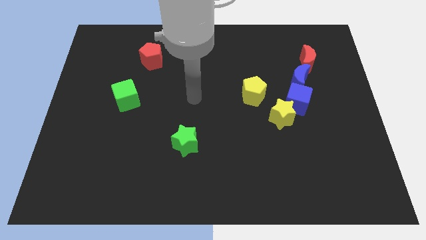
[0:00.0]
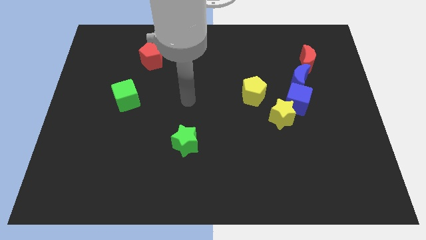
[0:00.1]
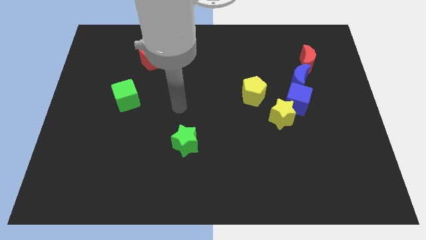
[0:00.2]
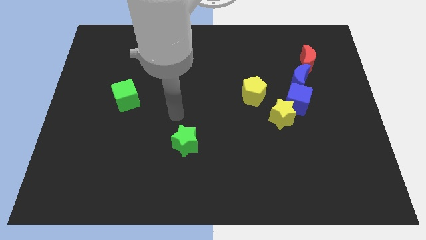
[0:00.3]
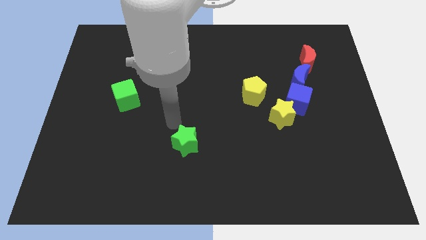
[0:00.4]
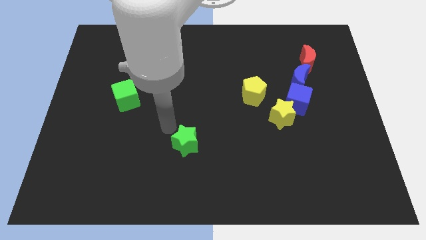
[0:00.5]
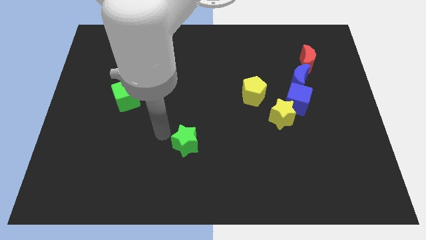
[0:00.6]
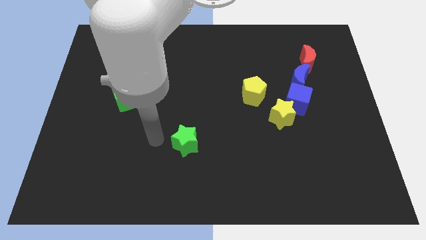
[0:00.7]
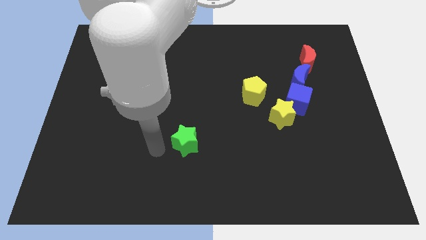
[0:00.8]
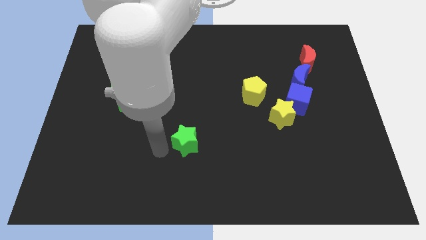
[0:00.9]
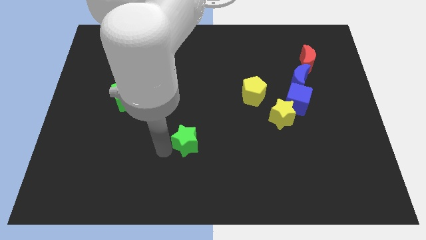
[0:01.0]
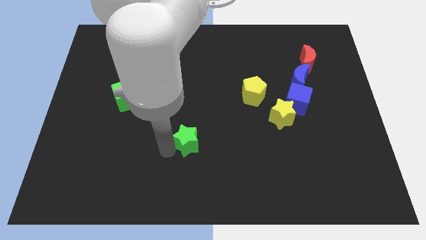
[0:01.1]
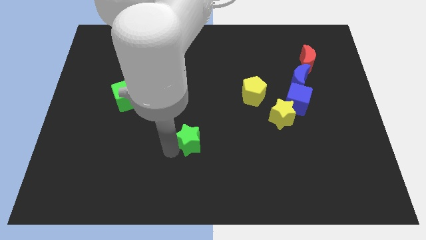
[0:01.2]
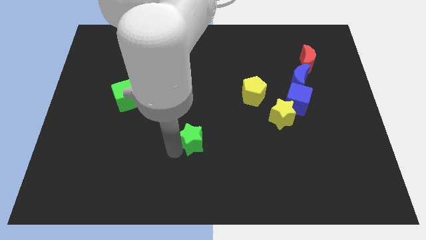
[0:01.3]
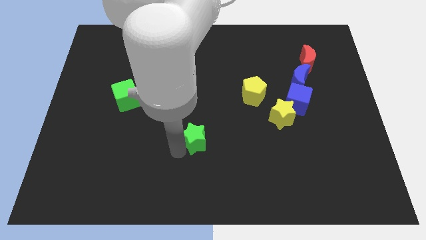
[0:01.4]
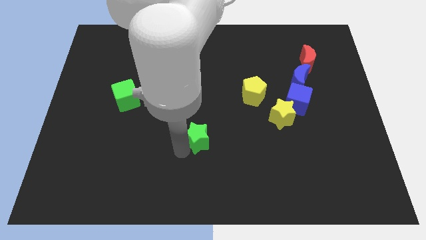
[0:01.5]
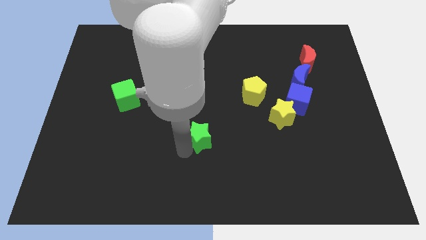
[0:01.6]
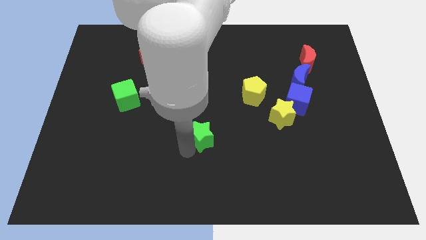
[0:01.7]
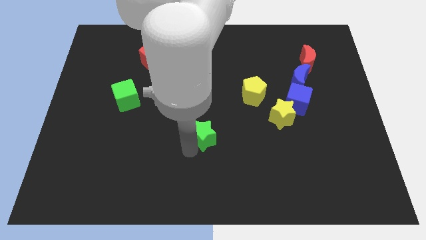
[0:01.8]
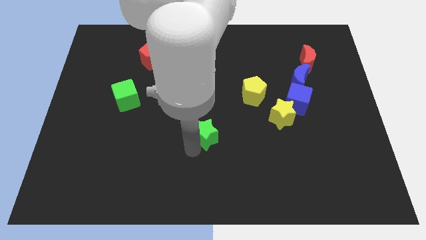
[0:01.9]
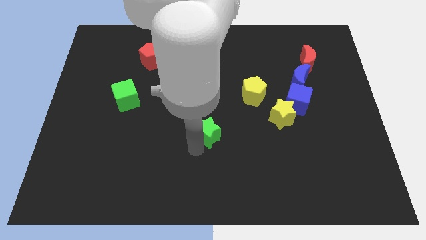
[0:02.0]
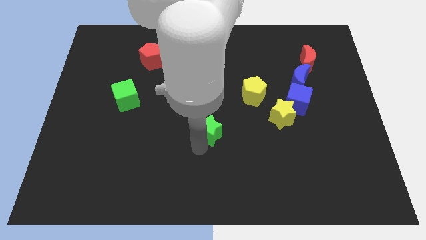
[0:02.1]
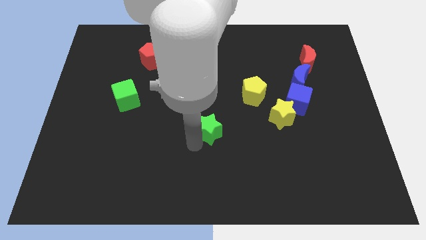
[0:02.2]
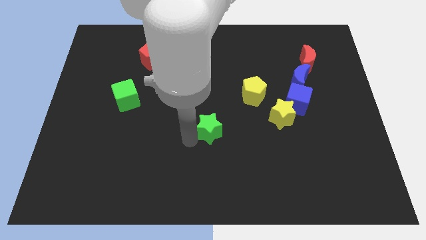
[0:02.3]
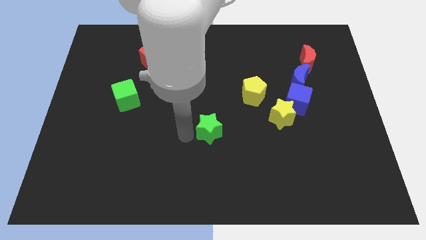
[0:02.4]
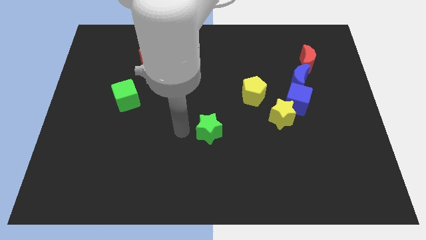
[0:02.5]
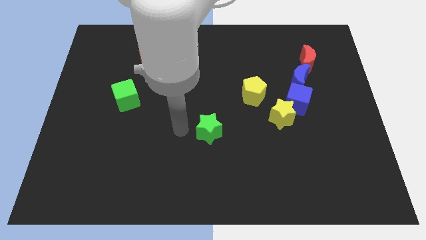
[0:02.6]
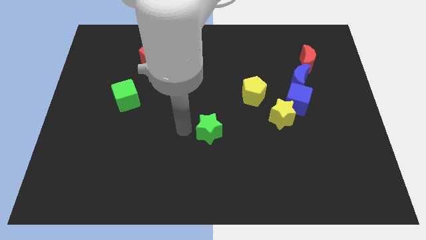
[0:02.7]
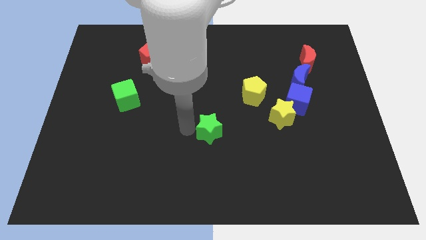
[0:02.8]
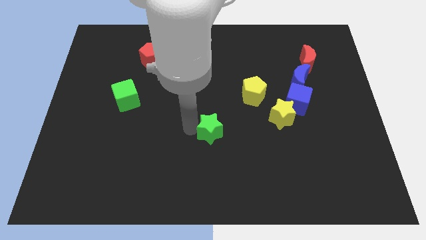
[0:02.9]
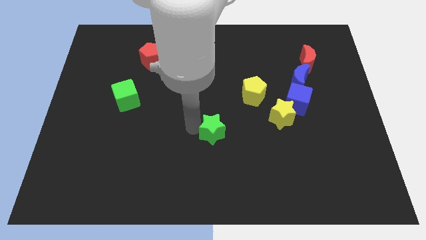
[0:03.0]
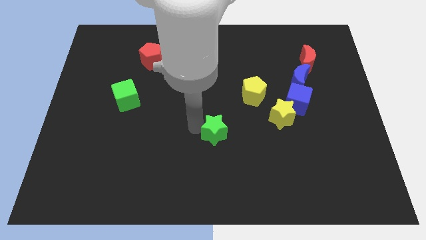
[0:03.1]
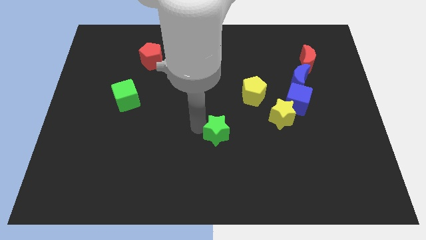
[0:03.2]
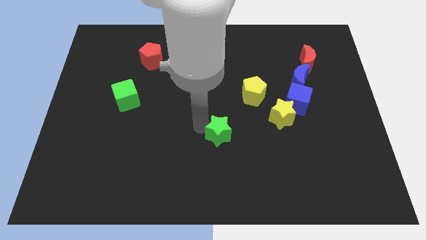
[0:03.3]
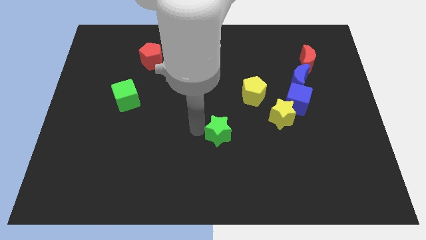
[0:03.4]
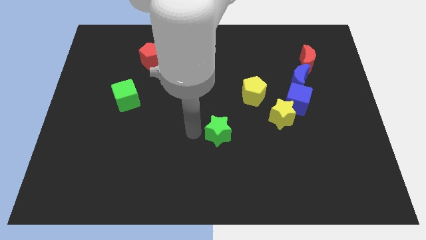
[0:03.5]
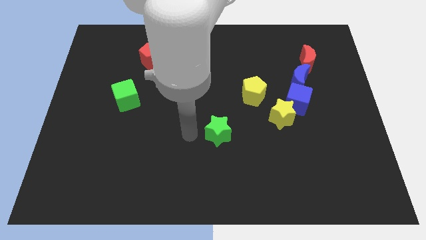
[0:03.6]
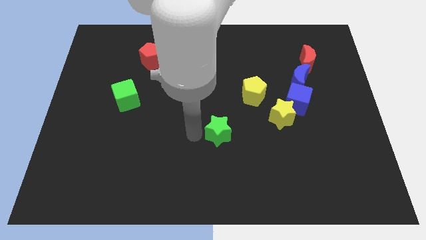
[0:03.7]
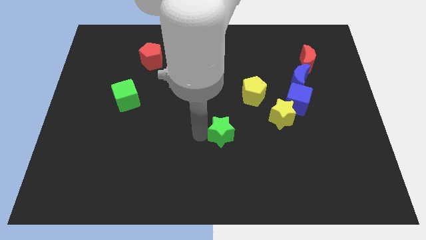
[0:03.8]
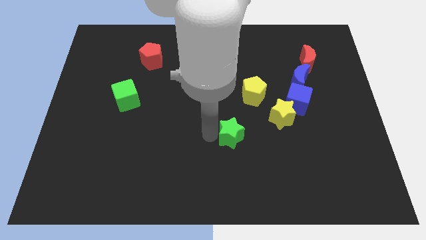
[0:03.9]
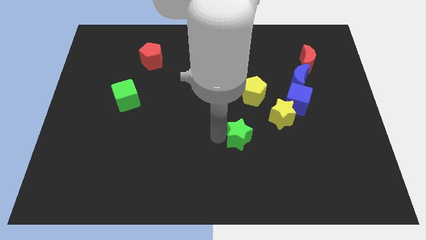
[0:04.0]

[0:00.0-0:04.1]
move the green star below the yellow pentagon

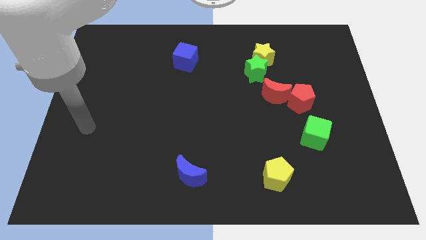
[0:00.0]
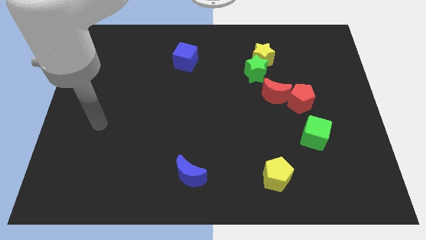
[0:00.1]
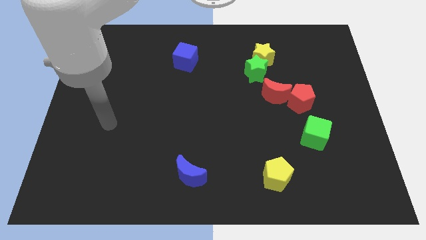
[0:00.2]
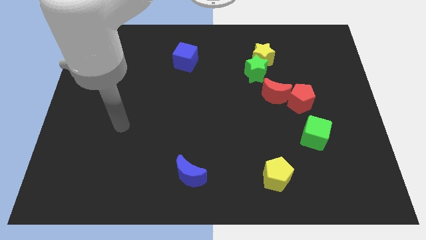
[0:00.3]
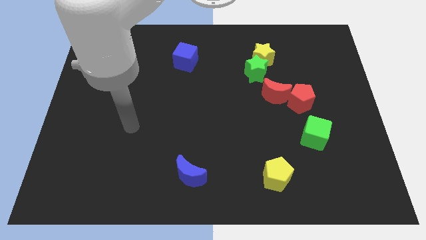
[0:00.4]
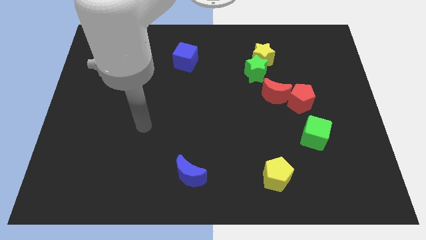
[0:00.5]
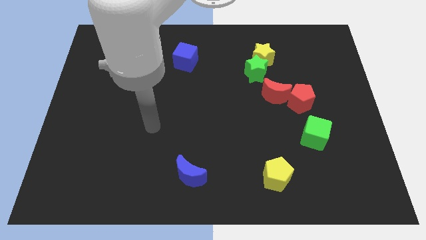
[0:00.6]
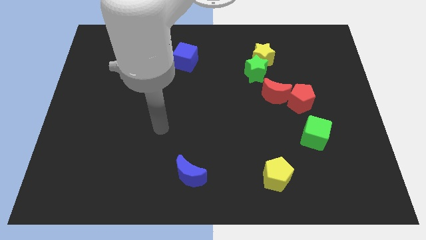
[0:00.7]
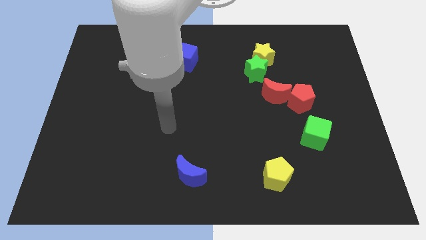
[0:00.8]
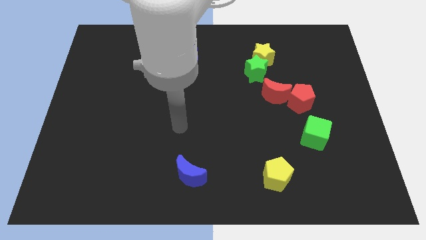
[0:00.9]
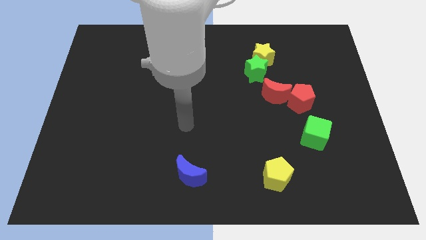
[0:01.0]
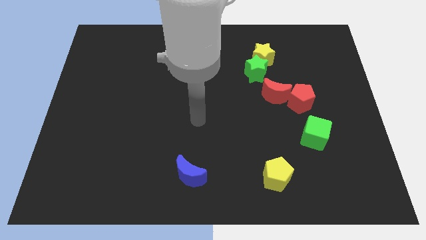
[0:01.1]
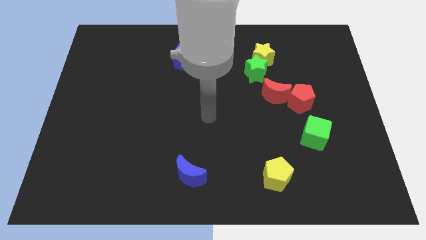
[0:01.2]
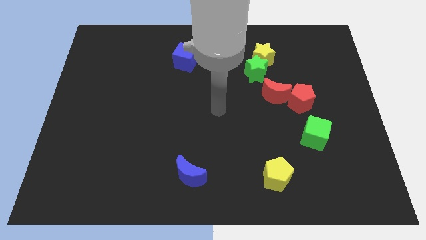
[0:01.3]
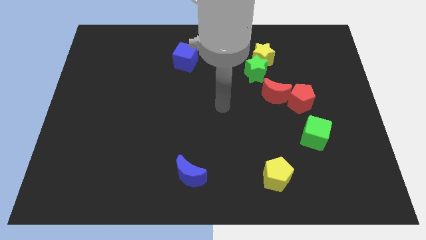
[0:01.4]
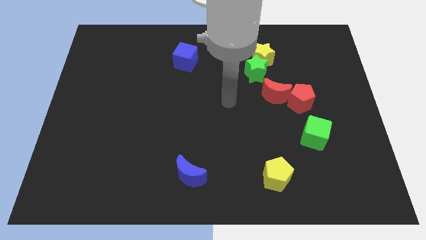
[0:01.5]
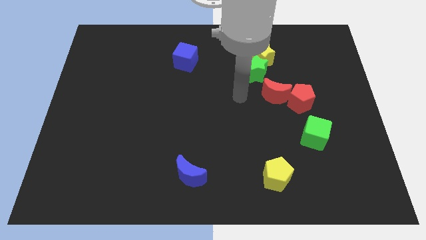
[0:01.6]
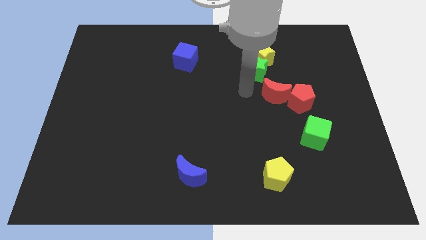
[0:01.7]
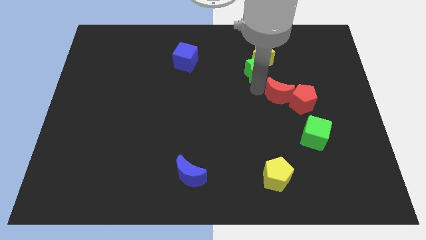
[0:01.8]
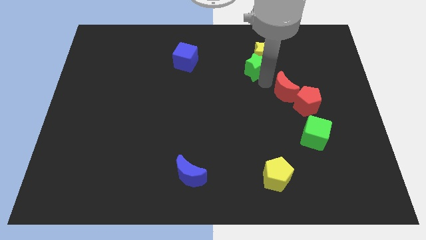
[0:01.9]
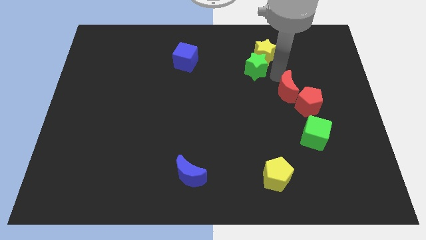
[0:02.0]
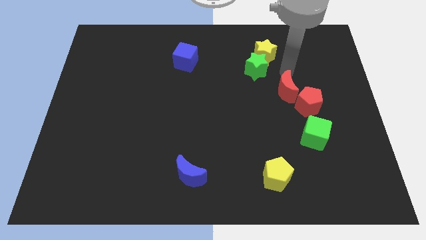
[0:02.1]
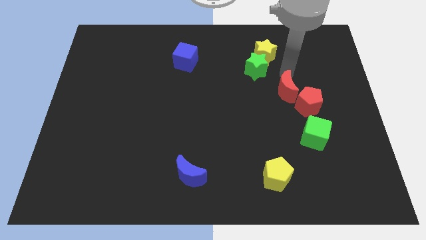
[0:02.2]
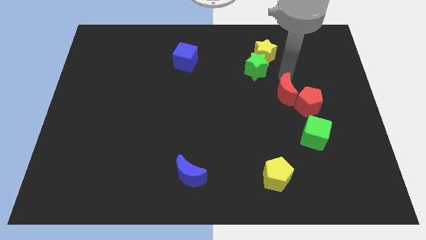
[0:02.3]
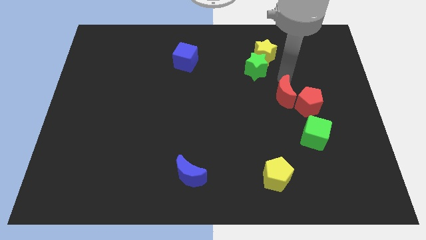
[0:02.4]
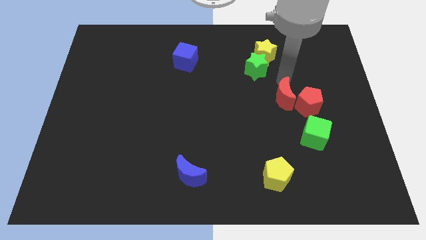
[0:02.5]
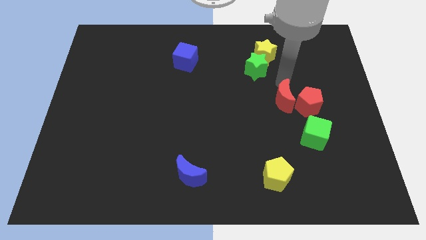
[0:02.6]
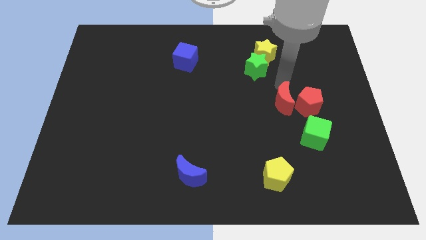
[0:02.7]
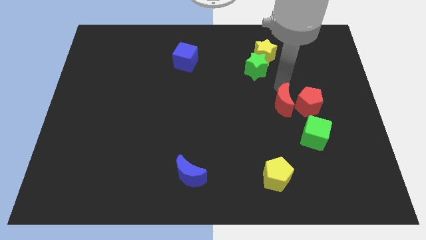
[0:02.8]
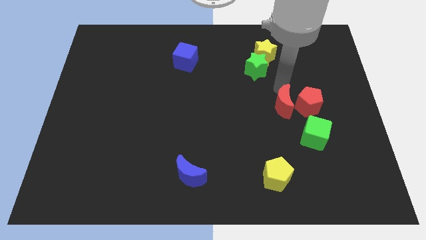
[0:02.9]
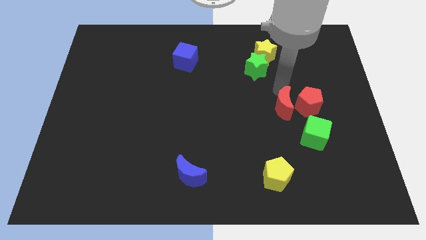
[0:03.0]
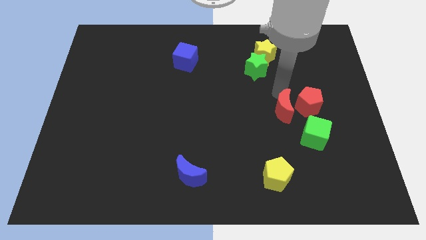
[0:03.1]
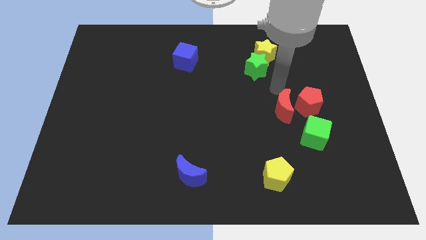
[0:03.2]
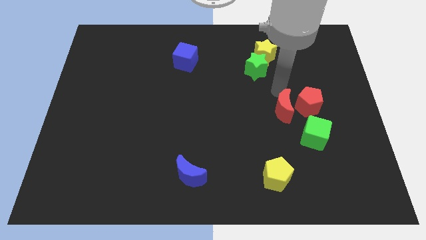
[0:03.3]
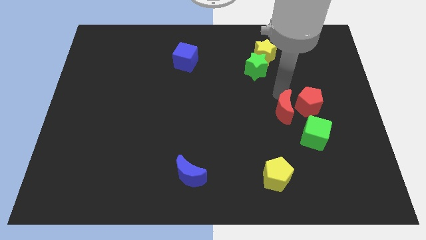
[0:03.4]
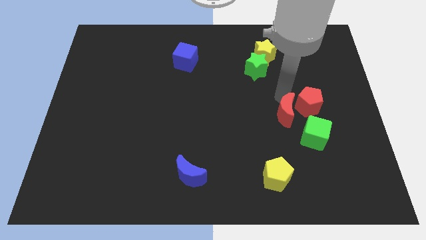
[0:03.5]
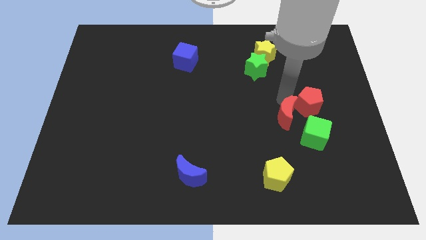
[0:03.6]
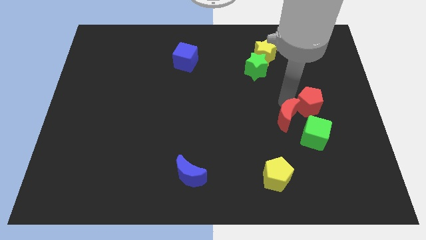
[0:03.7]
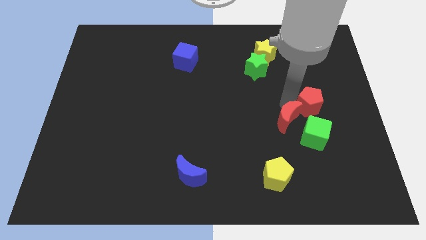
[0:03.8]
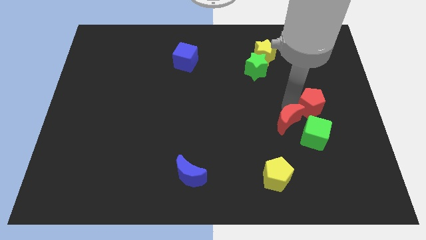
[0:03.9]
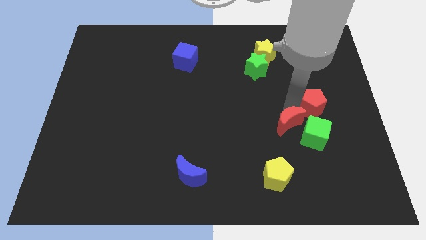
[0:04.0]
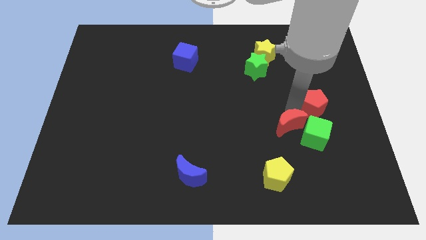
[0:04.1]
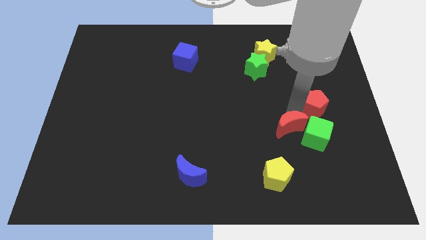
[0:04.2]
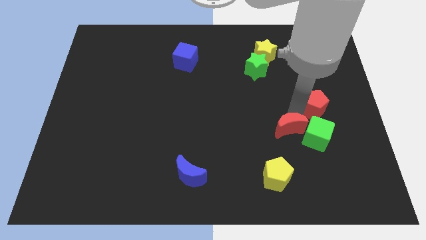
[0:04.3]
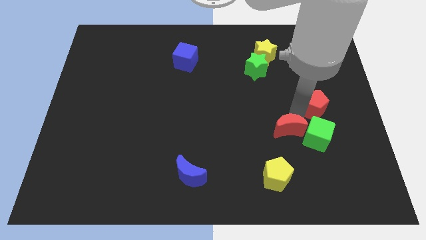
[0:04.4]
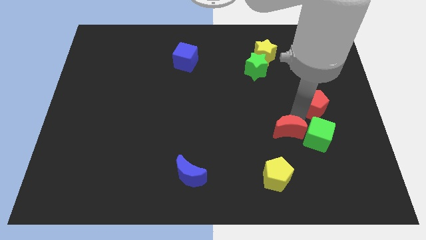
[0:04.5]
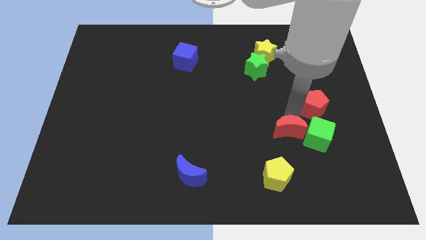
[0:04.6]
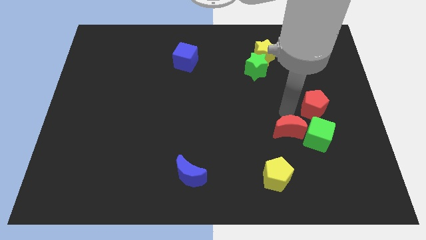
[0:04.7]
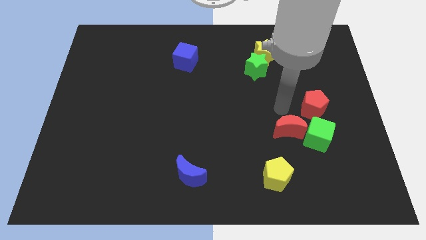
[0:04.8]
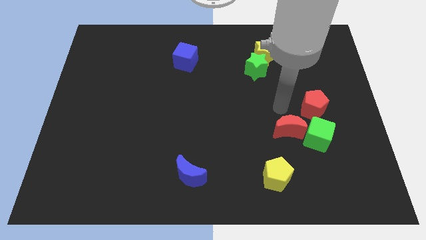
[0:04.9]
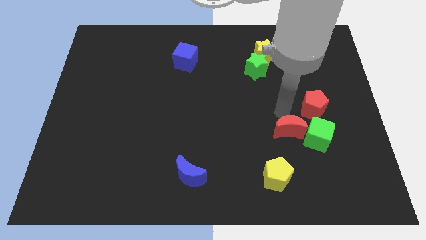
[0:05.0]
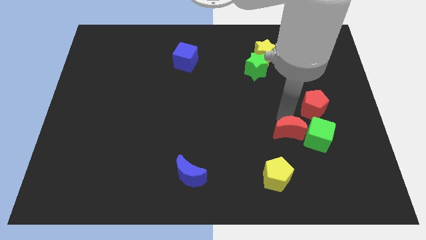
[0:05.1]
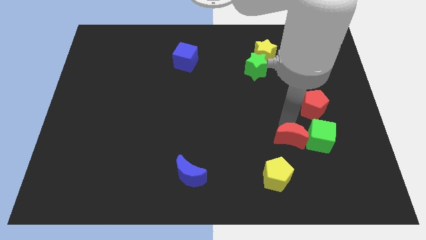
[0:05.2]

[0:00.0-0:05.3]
put the red moon to the top right side of the yellow pentagon
